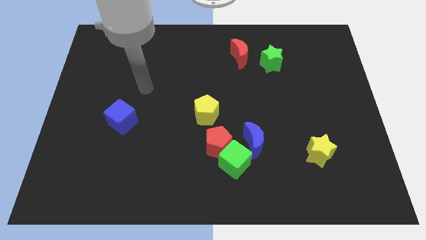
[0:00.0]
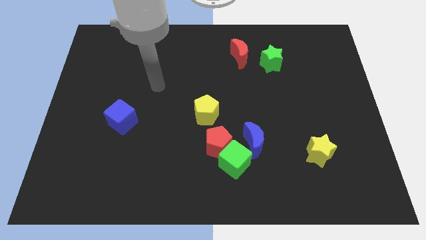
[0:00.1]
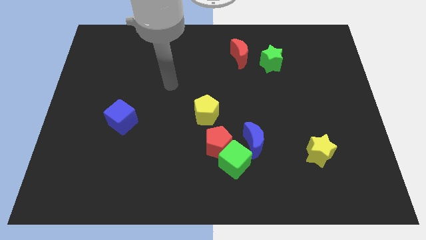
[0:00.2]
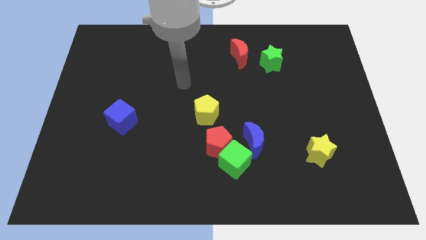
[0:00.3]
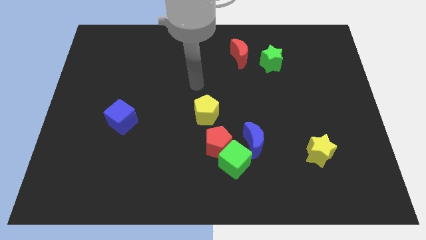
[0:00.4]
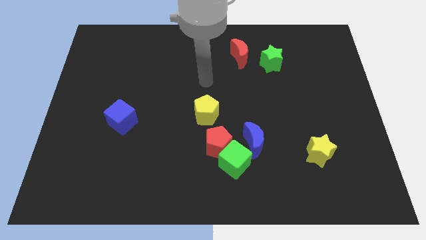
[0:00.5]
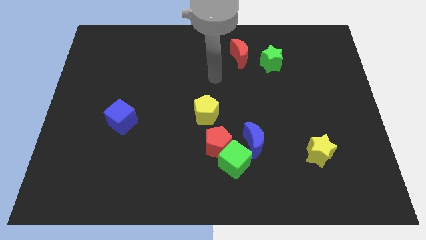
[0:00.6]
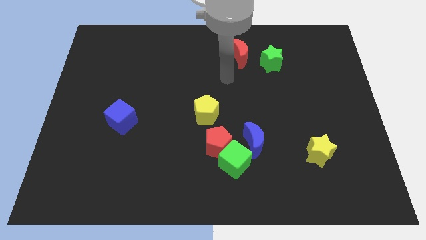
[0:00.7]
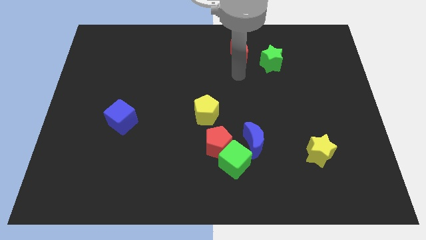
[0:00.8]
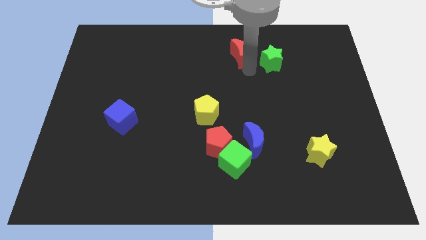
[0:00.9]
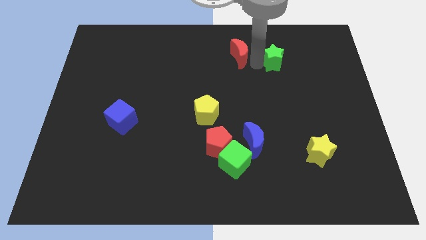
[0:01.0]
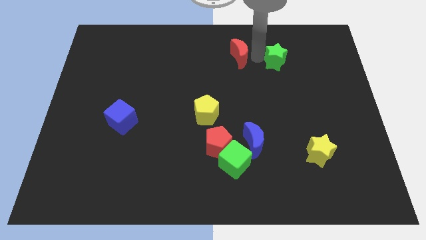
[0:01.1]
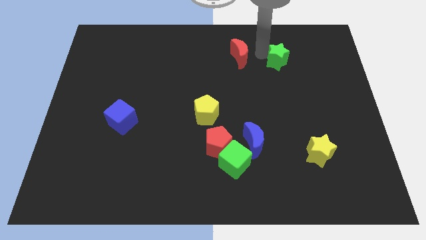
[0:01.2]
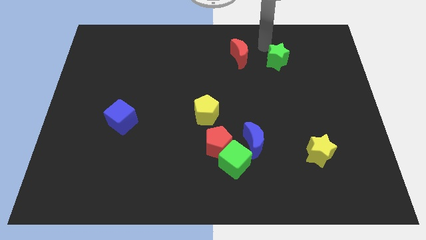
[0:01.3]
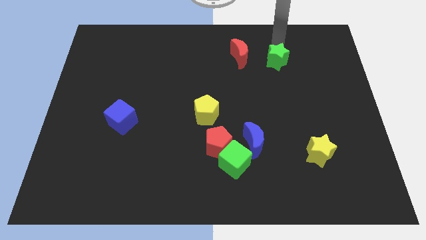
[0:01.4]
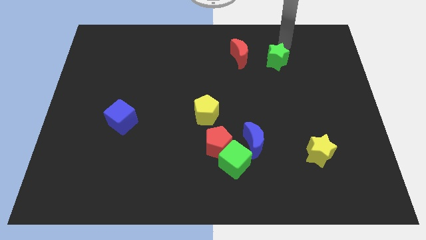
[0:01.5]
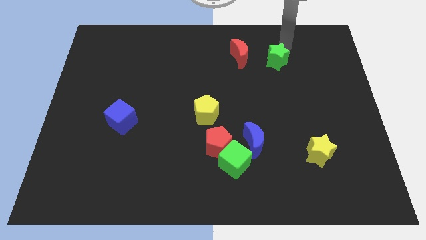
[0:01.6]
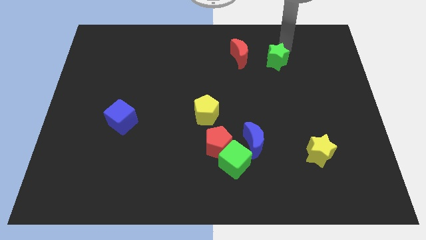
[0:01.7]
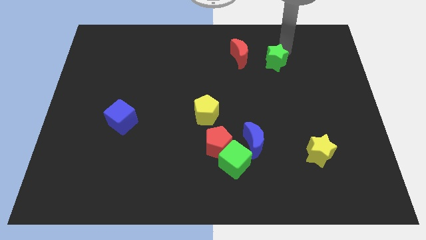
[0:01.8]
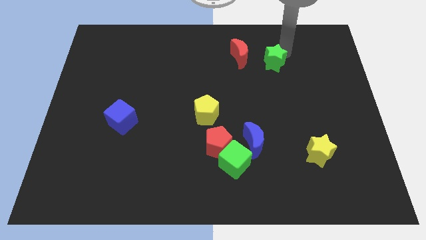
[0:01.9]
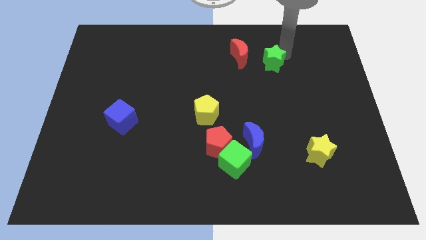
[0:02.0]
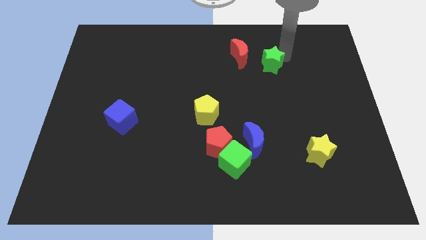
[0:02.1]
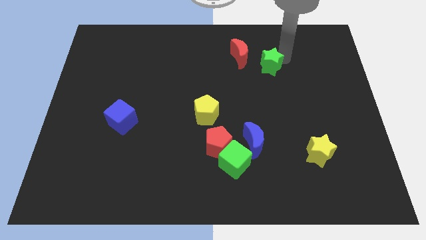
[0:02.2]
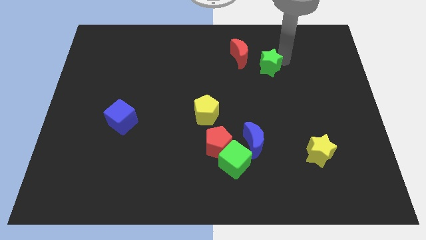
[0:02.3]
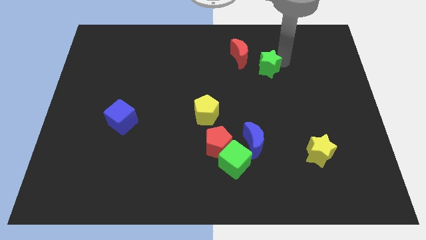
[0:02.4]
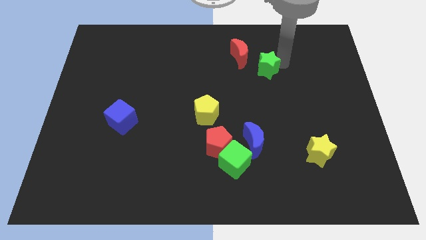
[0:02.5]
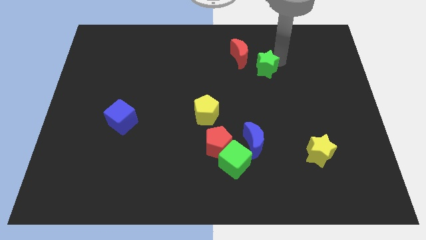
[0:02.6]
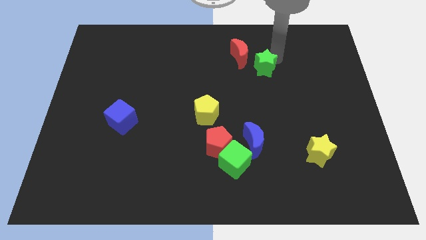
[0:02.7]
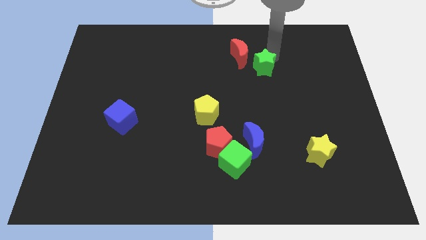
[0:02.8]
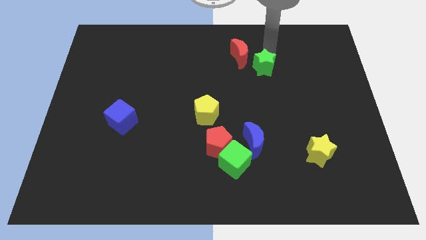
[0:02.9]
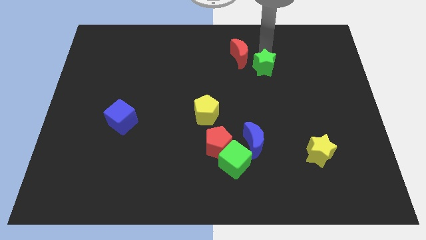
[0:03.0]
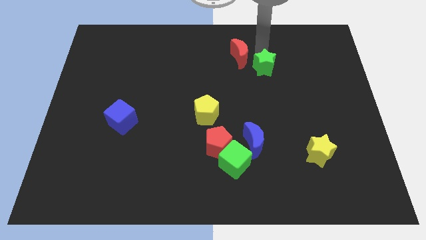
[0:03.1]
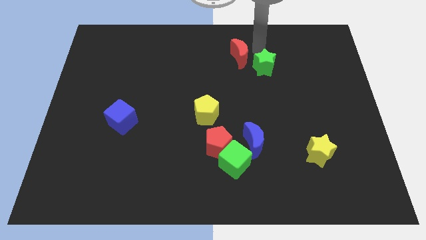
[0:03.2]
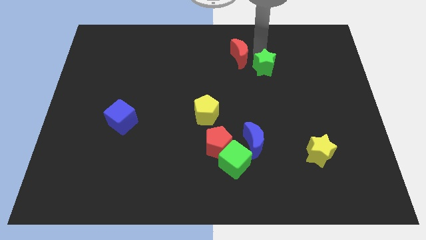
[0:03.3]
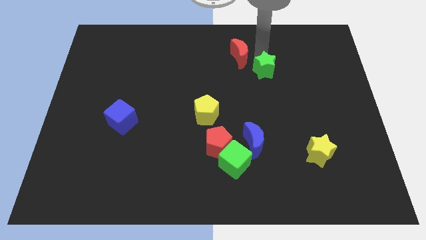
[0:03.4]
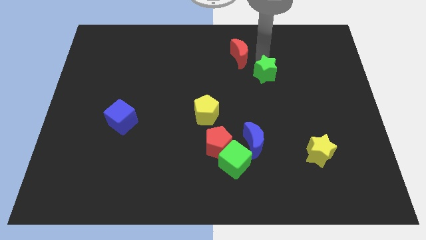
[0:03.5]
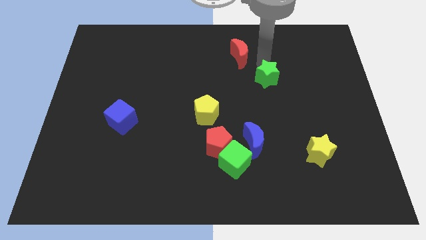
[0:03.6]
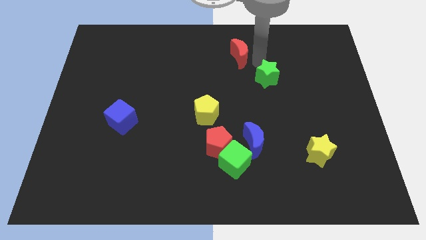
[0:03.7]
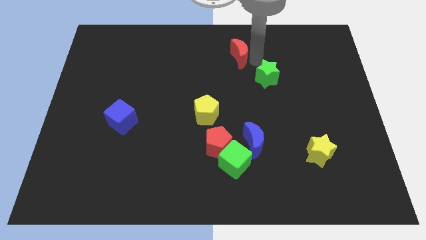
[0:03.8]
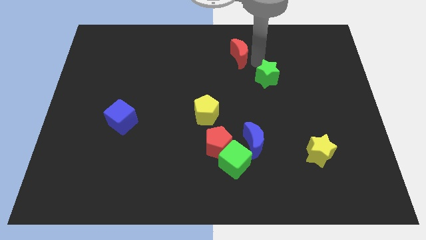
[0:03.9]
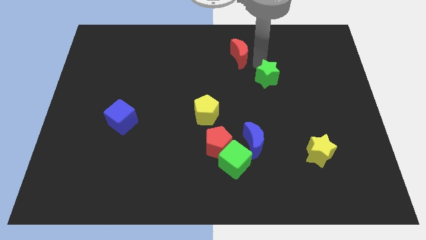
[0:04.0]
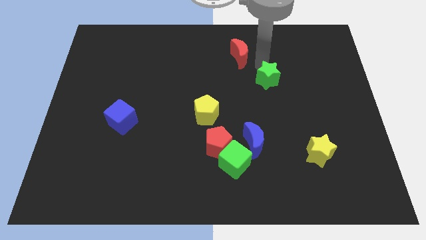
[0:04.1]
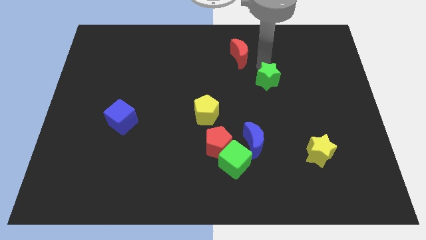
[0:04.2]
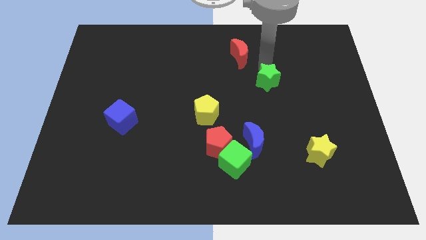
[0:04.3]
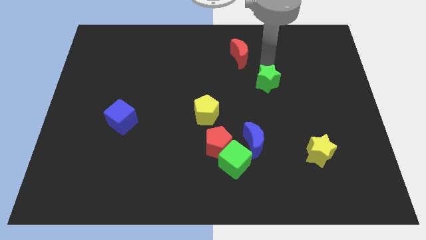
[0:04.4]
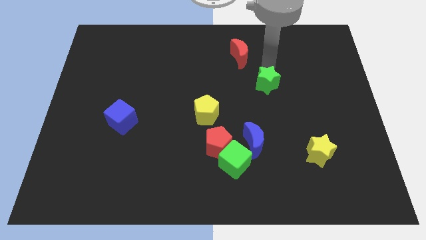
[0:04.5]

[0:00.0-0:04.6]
slide the green star down slightly

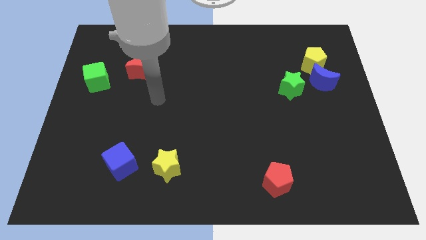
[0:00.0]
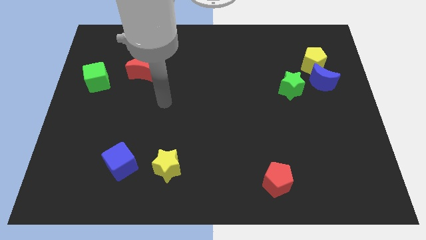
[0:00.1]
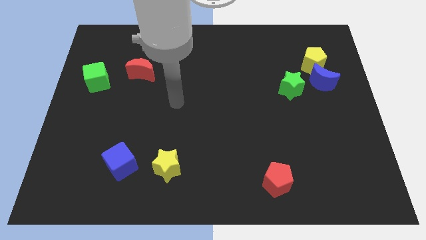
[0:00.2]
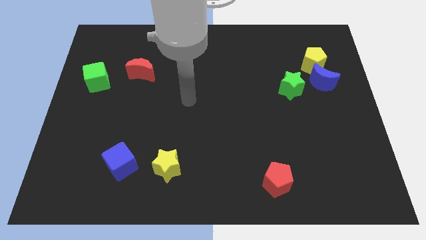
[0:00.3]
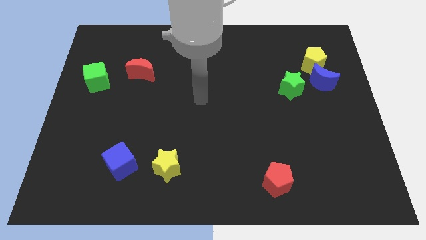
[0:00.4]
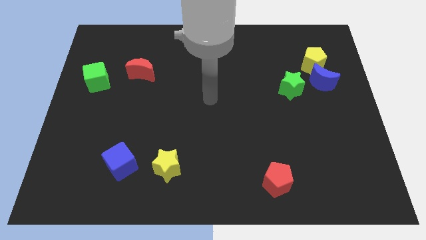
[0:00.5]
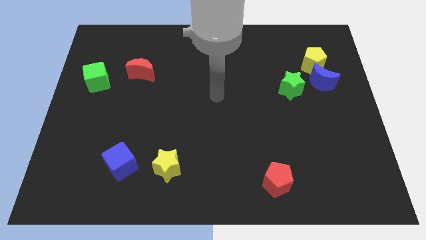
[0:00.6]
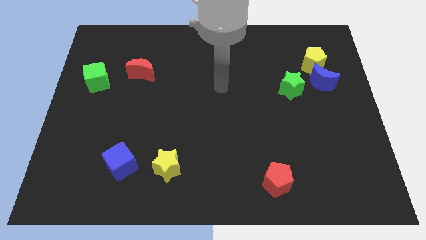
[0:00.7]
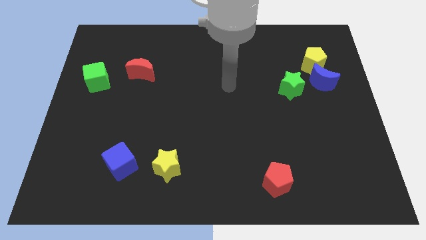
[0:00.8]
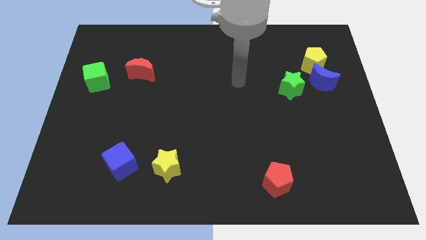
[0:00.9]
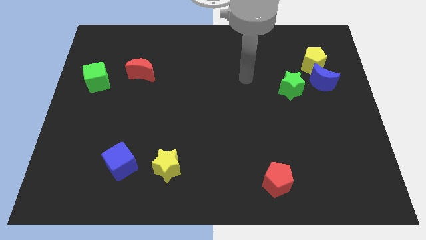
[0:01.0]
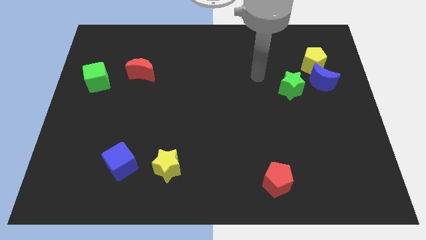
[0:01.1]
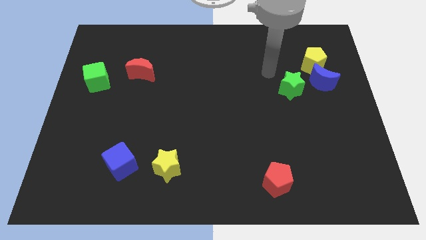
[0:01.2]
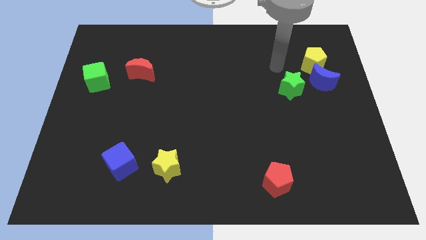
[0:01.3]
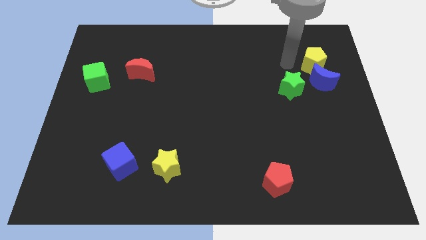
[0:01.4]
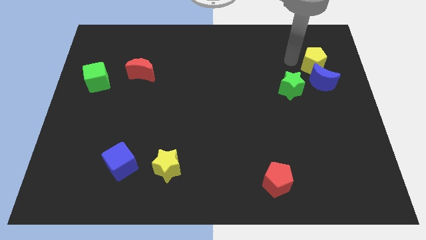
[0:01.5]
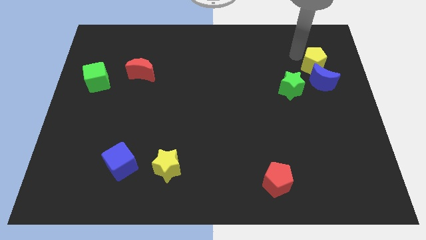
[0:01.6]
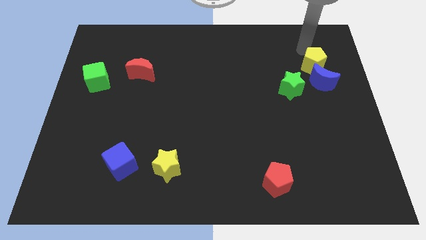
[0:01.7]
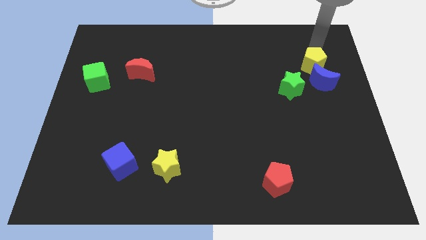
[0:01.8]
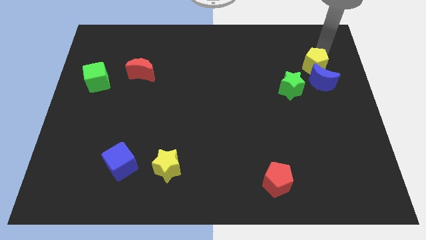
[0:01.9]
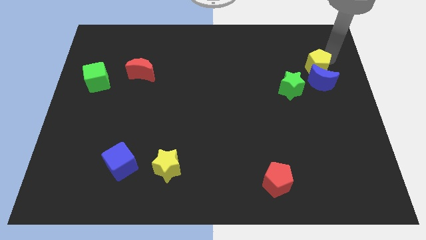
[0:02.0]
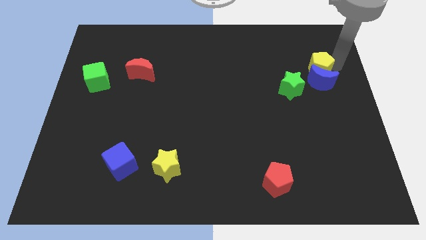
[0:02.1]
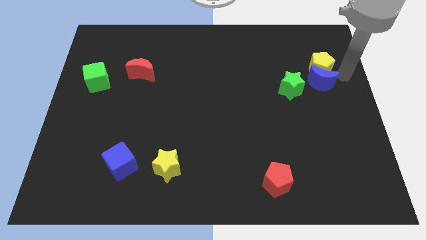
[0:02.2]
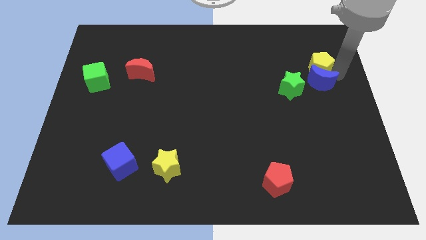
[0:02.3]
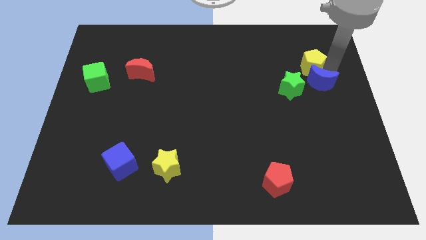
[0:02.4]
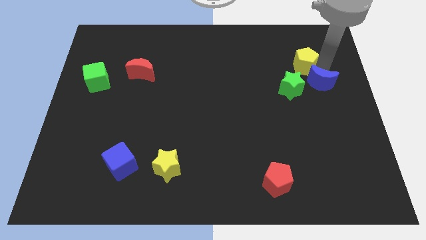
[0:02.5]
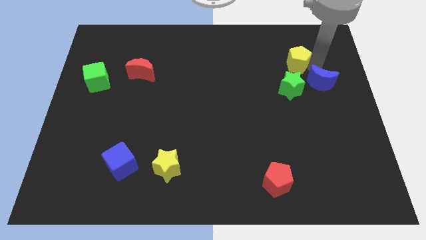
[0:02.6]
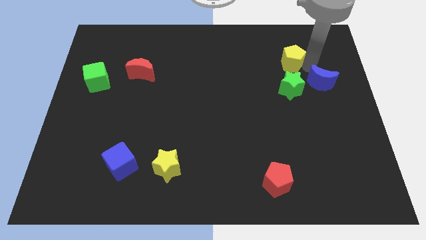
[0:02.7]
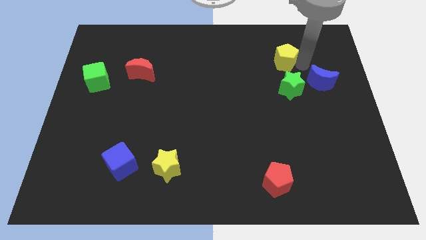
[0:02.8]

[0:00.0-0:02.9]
slide the yellow pentagon to the left a bit

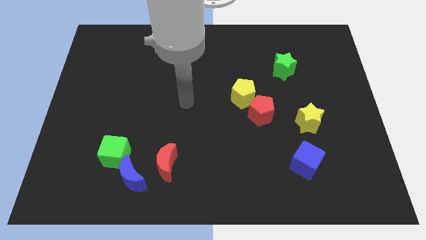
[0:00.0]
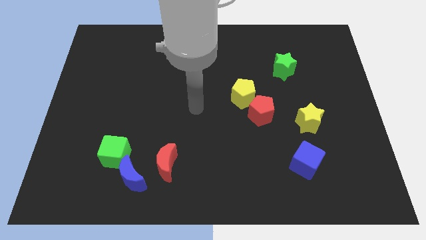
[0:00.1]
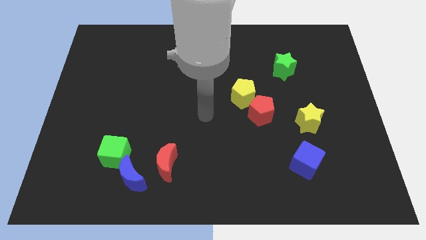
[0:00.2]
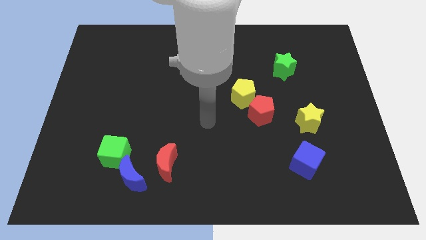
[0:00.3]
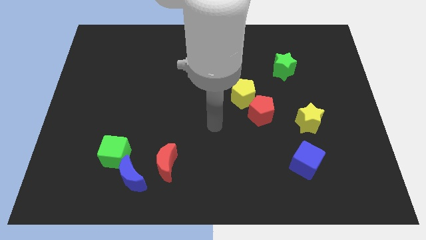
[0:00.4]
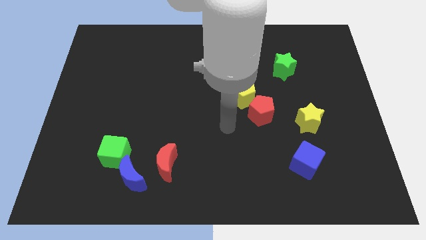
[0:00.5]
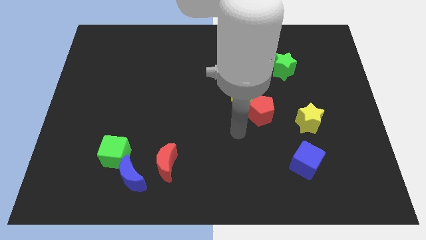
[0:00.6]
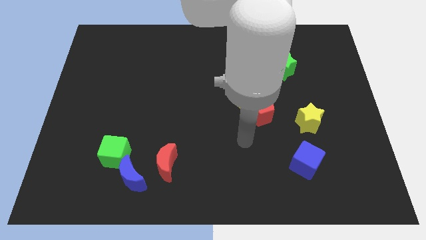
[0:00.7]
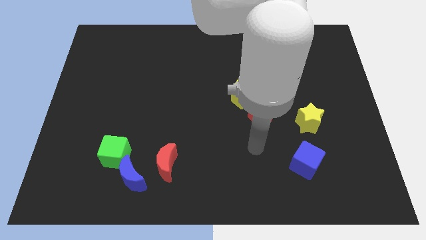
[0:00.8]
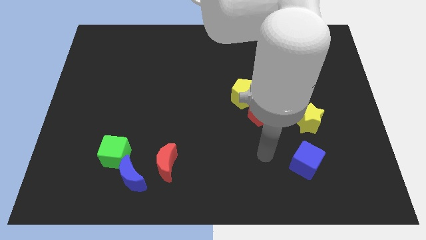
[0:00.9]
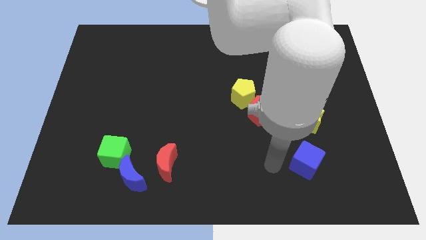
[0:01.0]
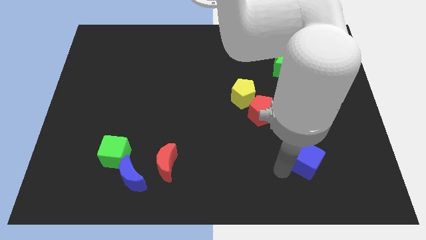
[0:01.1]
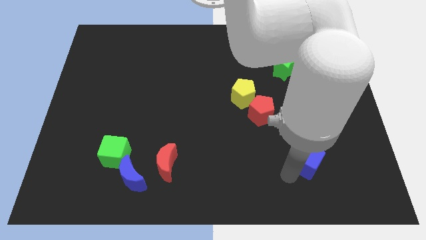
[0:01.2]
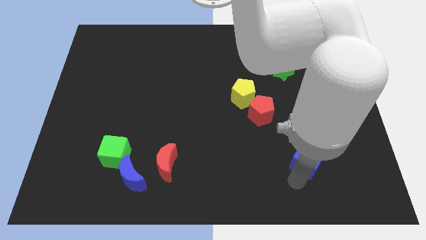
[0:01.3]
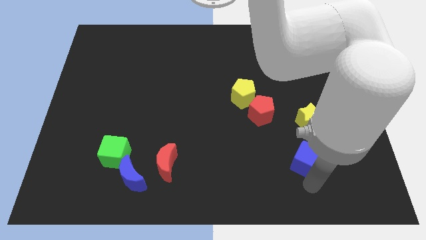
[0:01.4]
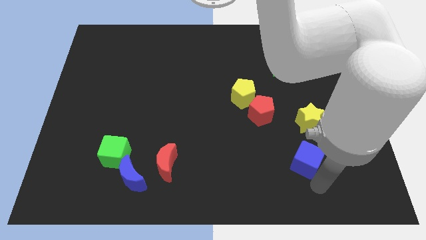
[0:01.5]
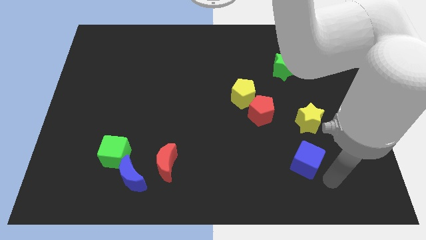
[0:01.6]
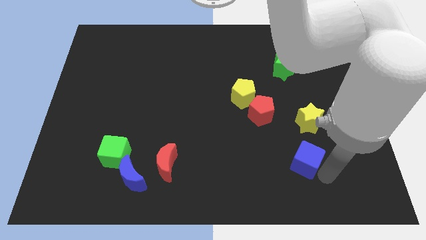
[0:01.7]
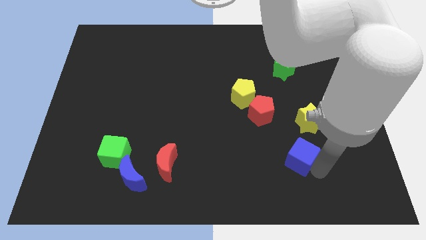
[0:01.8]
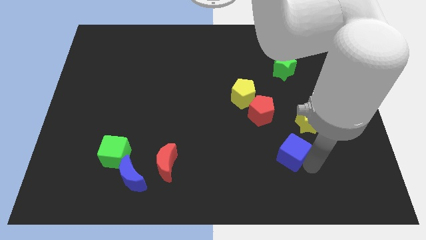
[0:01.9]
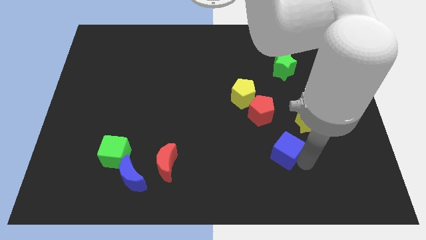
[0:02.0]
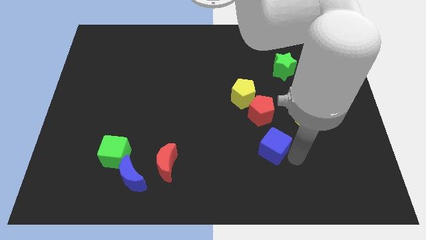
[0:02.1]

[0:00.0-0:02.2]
slightly push the blue cube up and then left
